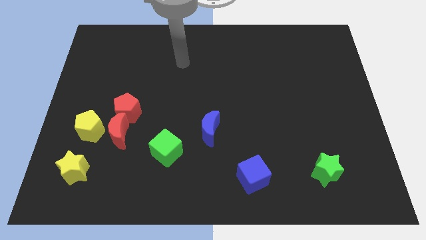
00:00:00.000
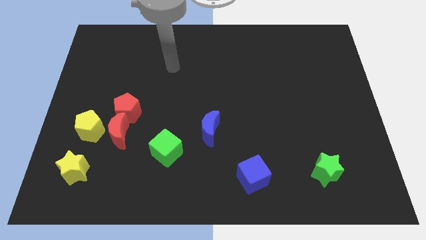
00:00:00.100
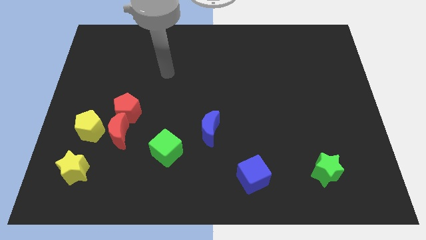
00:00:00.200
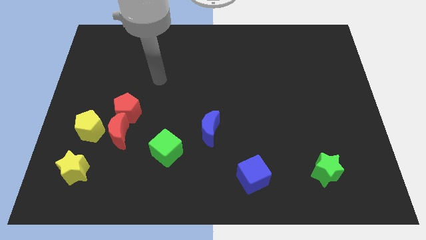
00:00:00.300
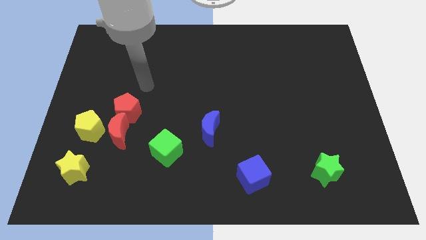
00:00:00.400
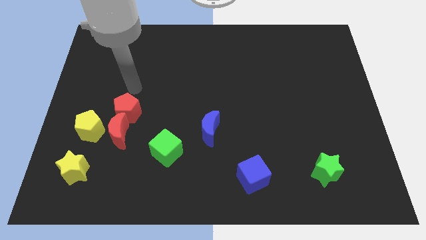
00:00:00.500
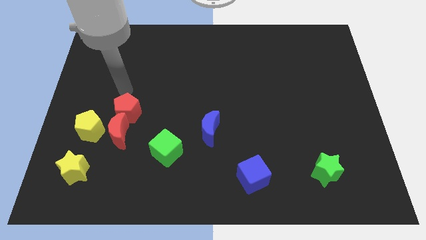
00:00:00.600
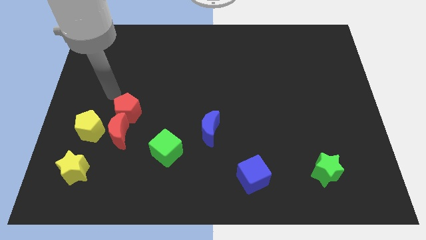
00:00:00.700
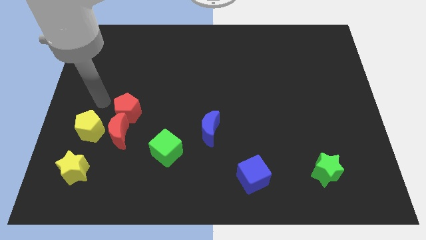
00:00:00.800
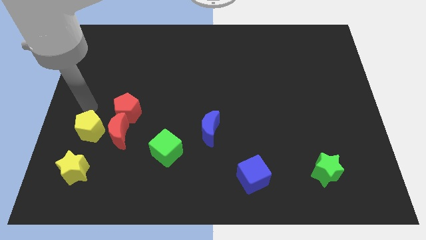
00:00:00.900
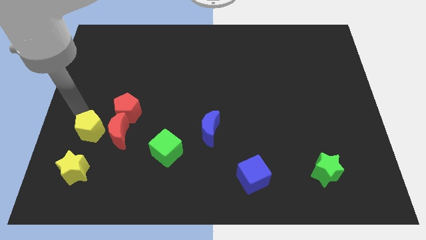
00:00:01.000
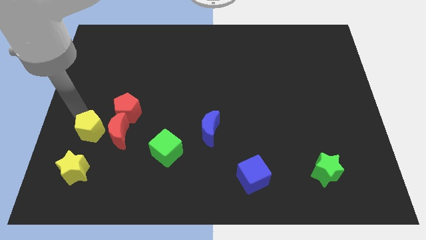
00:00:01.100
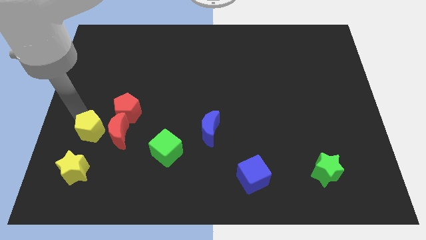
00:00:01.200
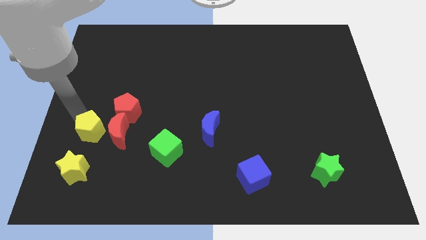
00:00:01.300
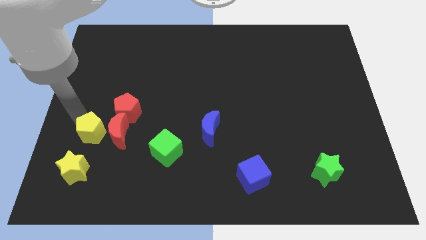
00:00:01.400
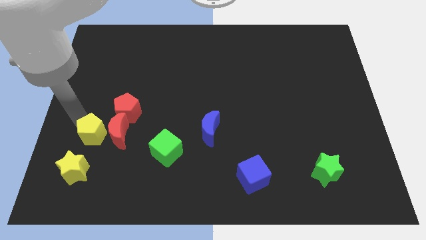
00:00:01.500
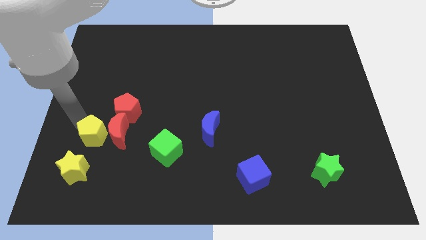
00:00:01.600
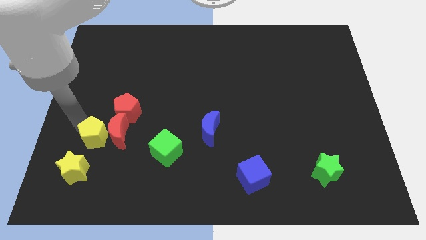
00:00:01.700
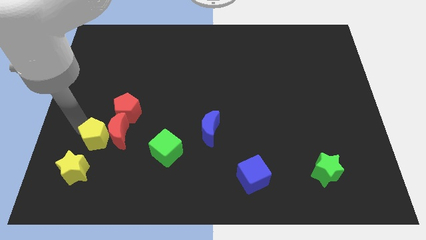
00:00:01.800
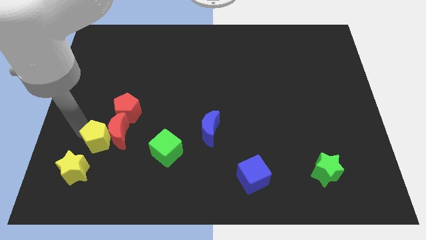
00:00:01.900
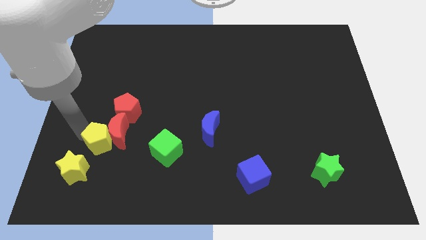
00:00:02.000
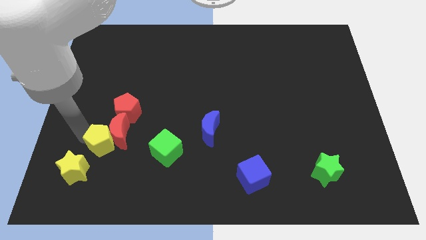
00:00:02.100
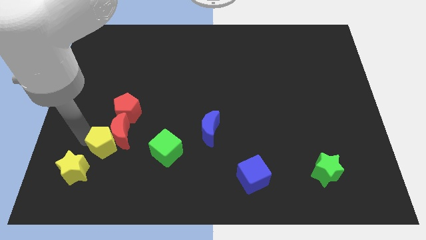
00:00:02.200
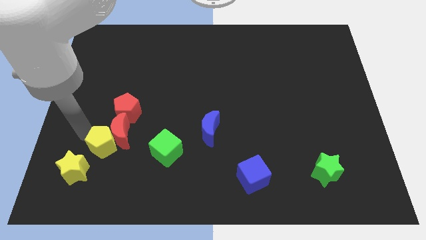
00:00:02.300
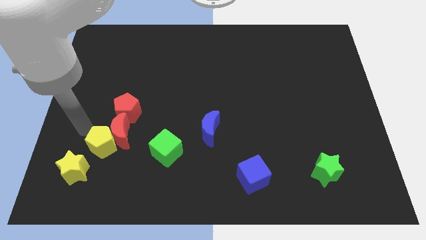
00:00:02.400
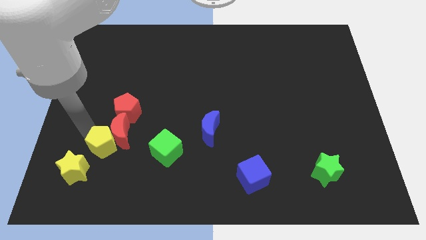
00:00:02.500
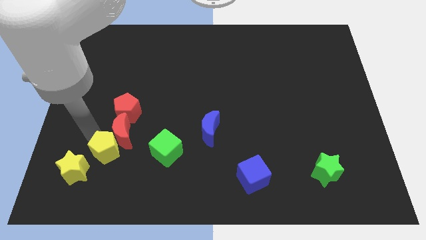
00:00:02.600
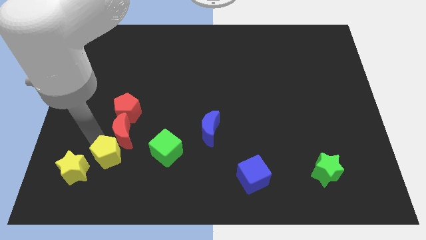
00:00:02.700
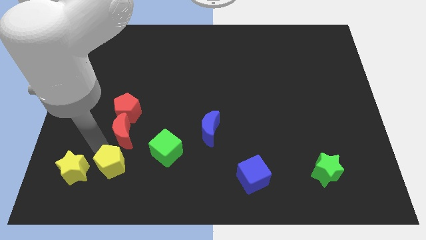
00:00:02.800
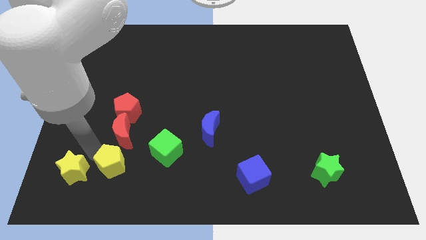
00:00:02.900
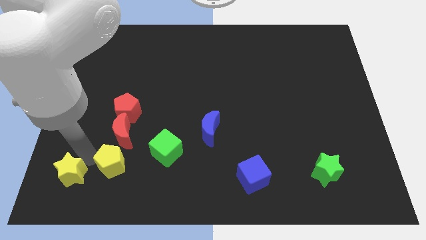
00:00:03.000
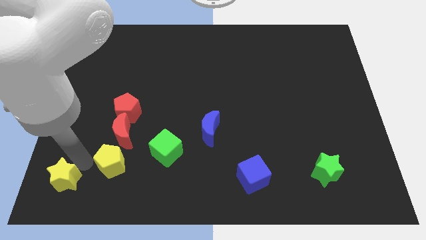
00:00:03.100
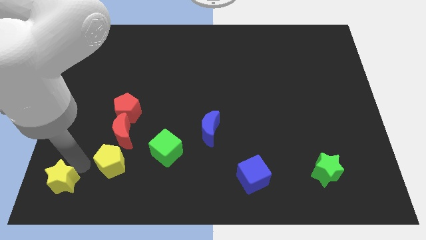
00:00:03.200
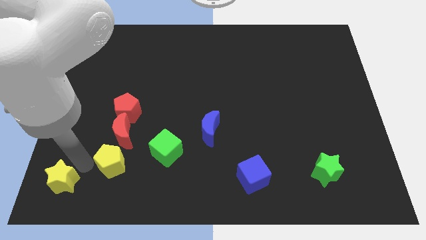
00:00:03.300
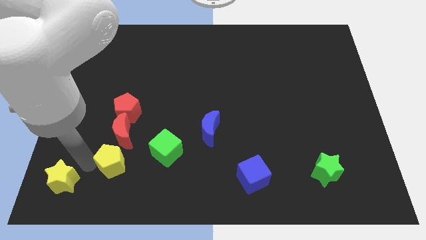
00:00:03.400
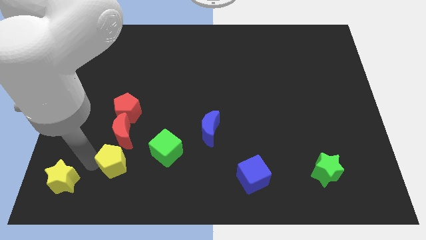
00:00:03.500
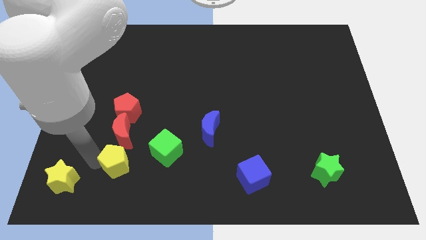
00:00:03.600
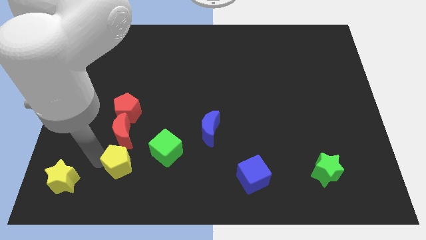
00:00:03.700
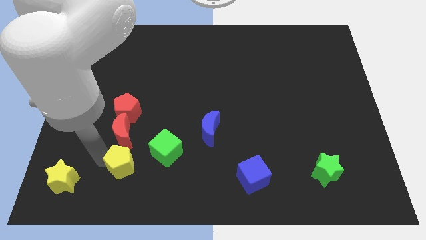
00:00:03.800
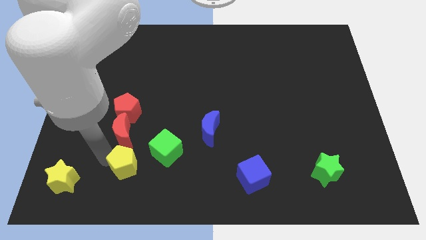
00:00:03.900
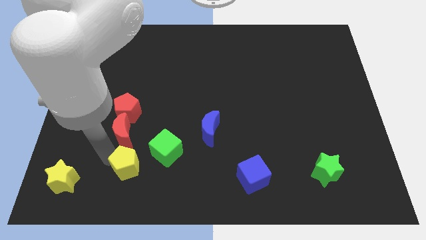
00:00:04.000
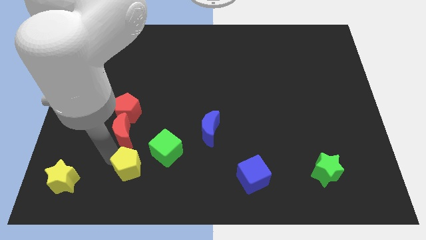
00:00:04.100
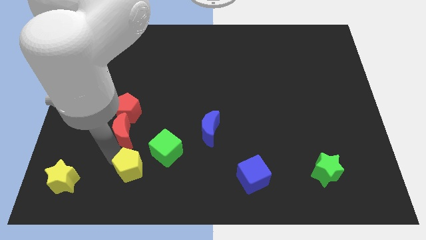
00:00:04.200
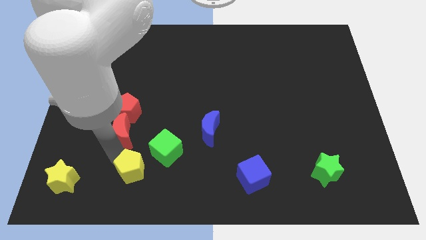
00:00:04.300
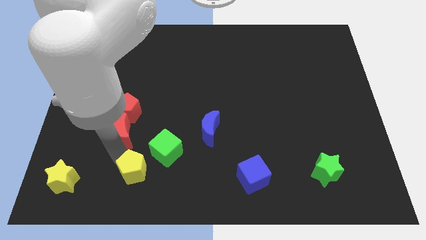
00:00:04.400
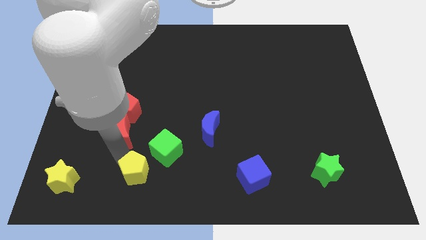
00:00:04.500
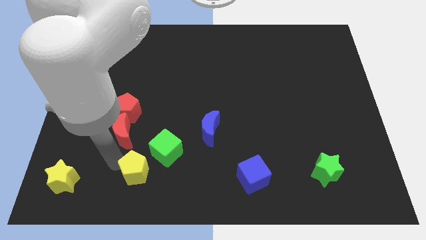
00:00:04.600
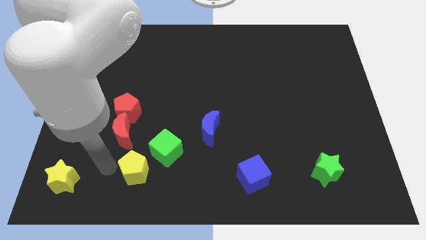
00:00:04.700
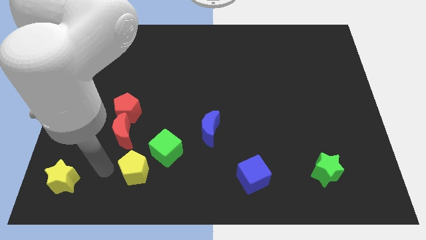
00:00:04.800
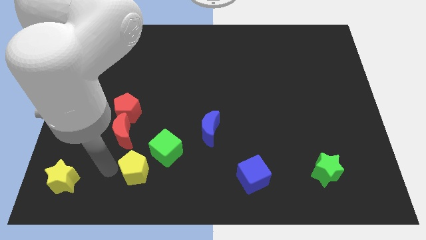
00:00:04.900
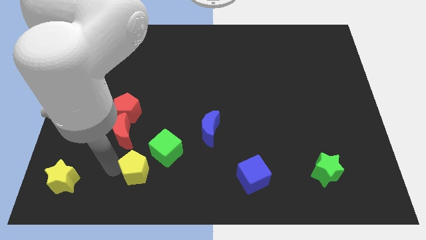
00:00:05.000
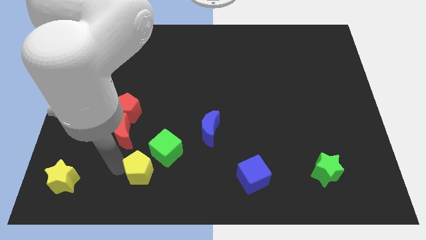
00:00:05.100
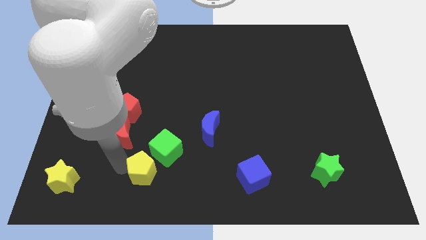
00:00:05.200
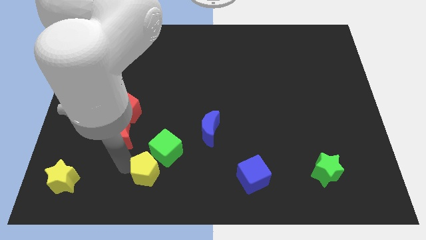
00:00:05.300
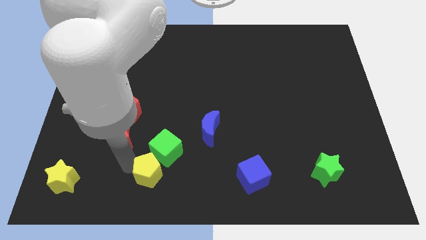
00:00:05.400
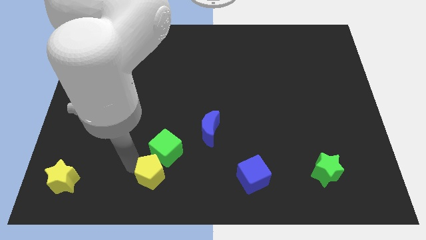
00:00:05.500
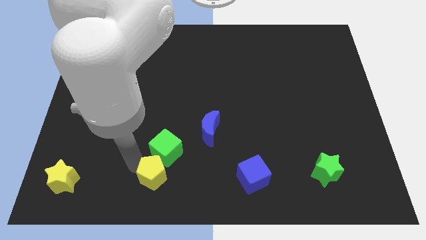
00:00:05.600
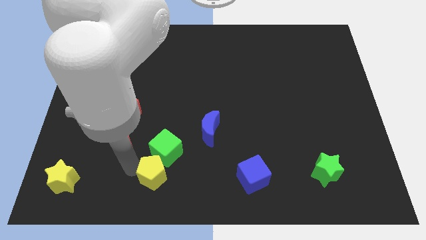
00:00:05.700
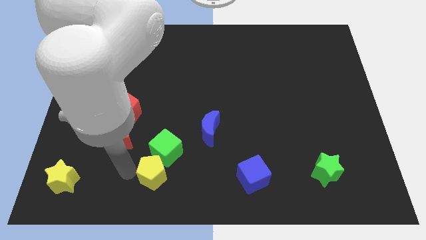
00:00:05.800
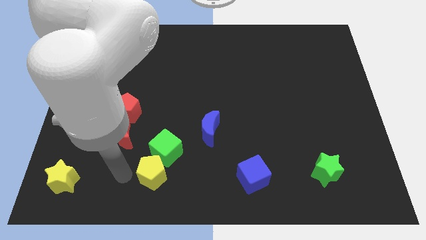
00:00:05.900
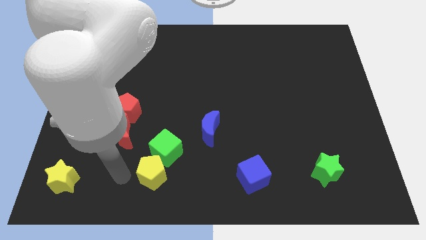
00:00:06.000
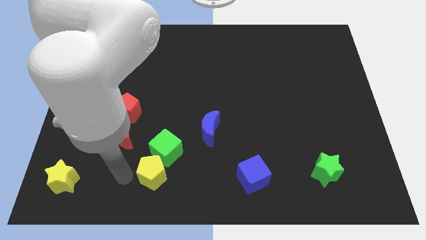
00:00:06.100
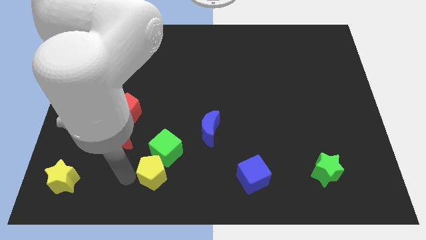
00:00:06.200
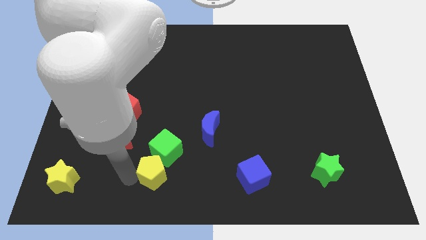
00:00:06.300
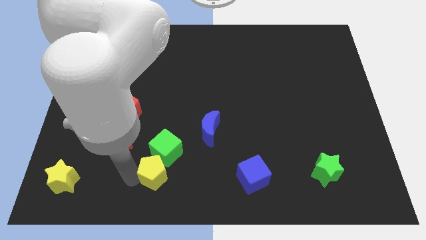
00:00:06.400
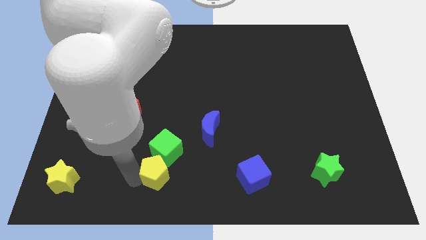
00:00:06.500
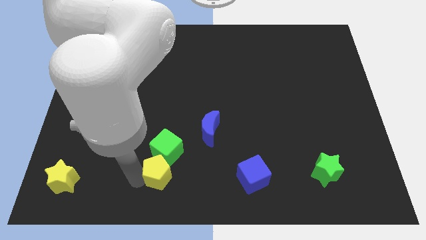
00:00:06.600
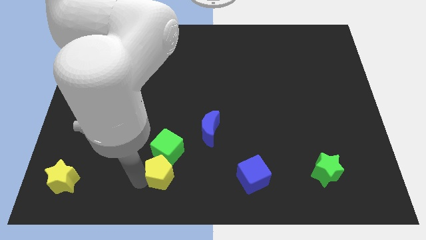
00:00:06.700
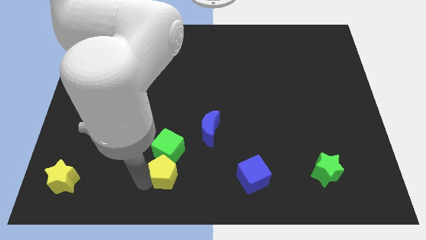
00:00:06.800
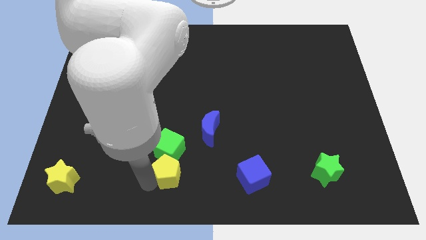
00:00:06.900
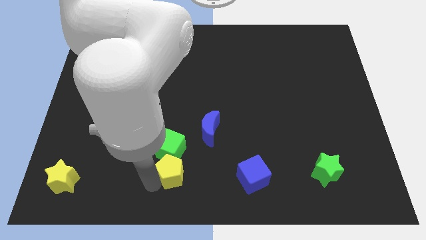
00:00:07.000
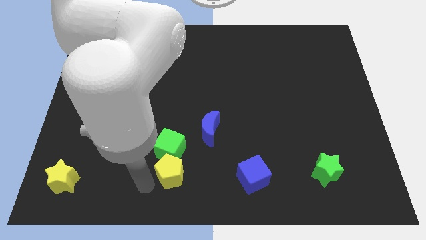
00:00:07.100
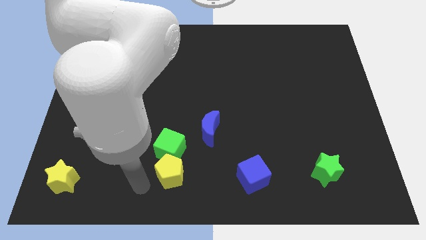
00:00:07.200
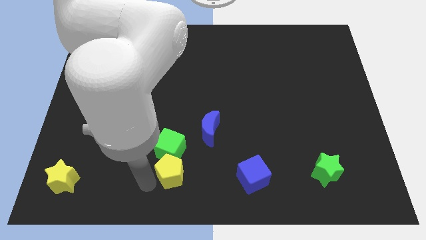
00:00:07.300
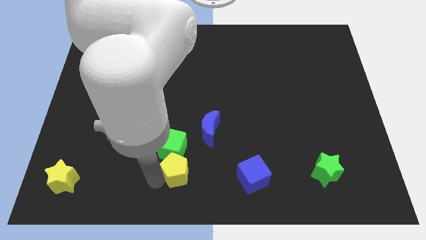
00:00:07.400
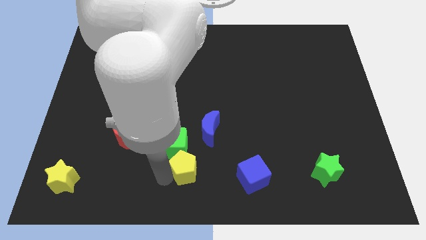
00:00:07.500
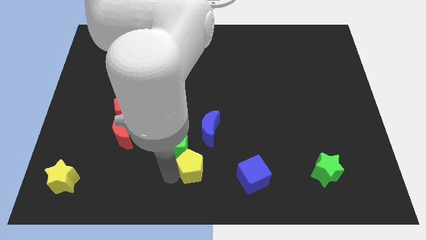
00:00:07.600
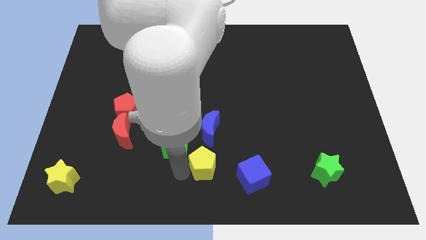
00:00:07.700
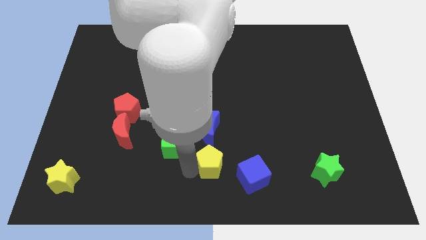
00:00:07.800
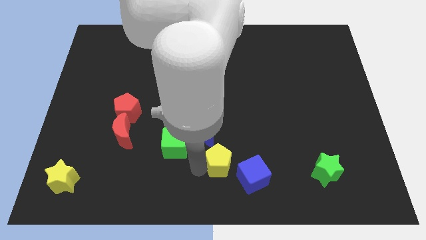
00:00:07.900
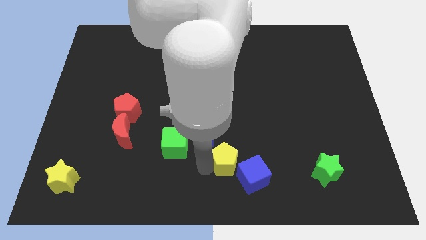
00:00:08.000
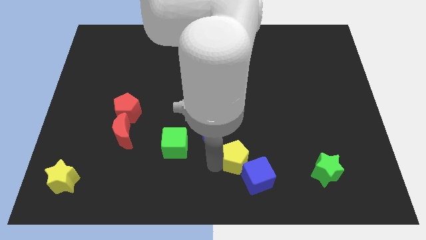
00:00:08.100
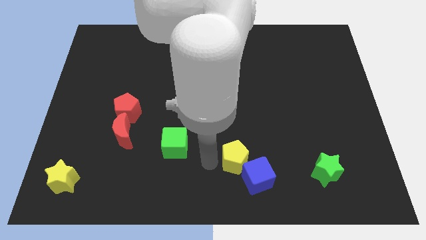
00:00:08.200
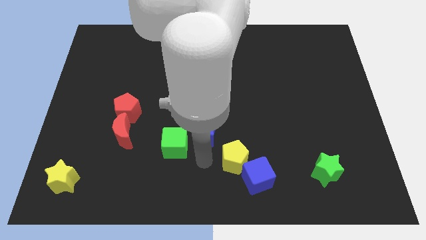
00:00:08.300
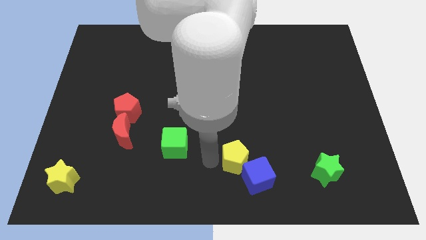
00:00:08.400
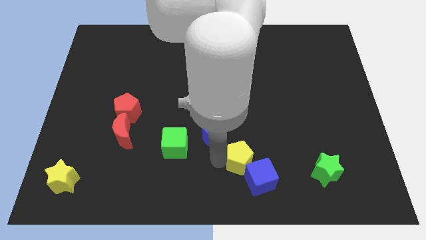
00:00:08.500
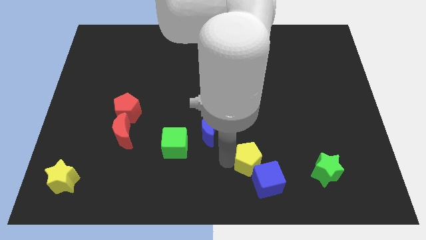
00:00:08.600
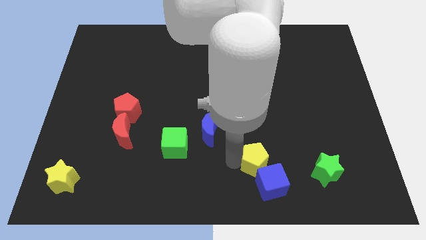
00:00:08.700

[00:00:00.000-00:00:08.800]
push the yellow pentagon left of the green star
